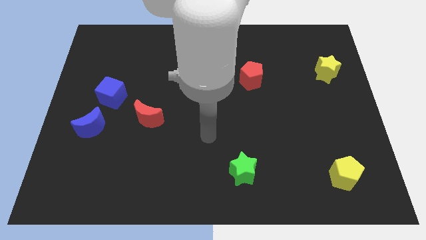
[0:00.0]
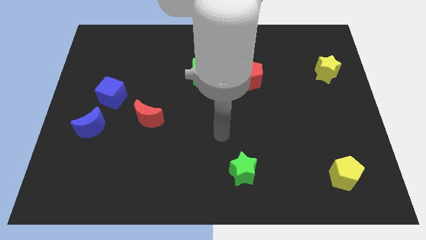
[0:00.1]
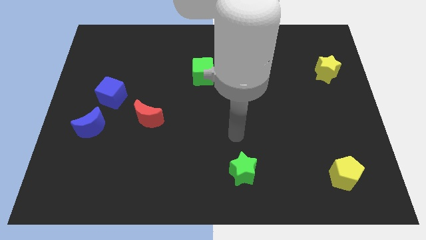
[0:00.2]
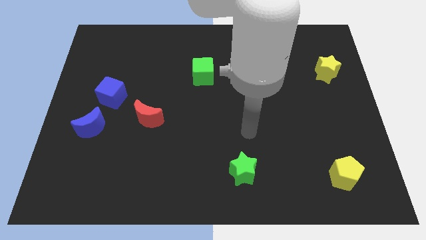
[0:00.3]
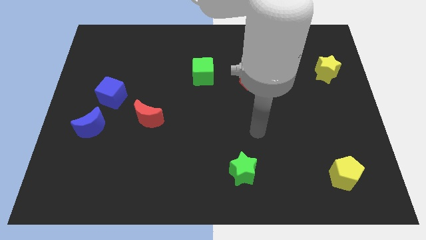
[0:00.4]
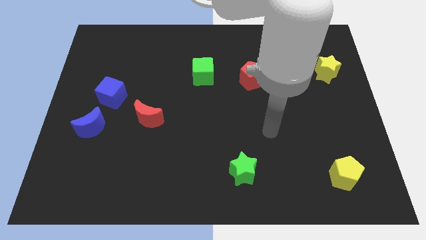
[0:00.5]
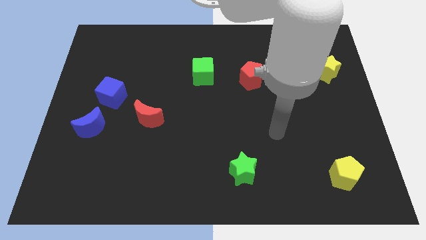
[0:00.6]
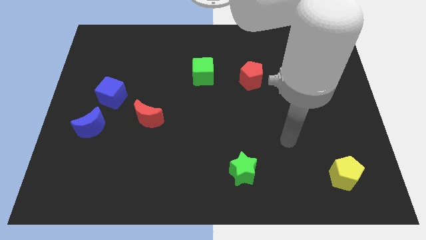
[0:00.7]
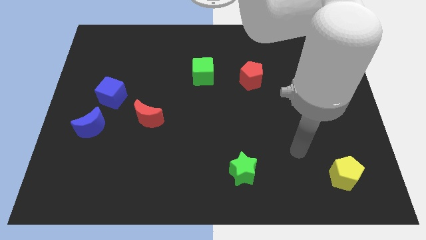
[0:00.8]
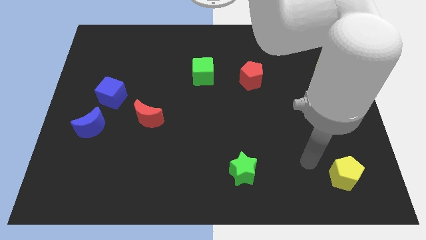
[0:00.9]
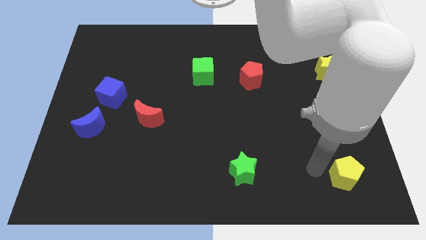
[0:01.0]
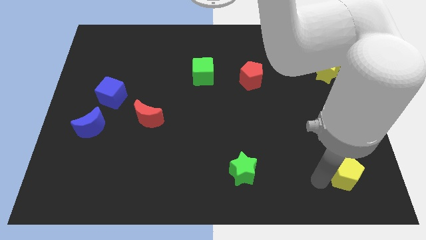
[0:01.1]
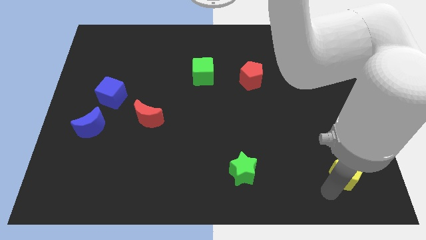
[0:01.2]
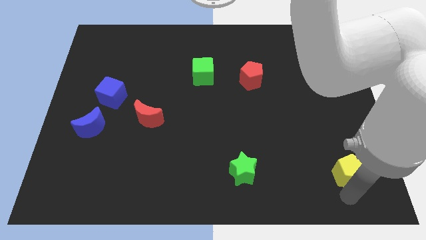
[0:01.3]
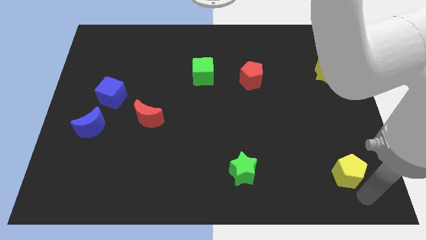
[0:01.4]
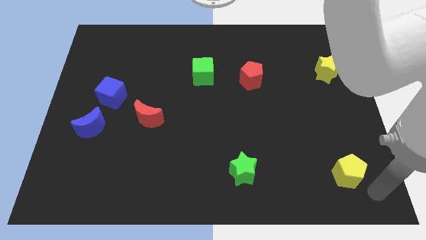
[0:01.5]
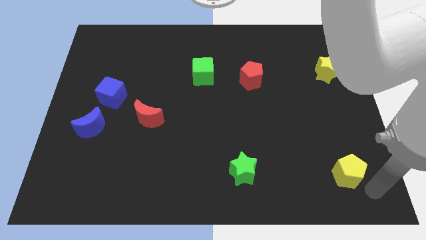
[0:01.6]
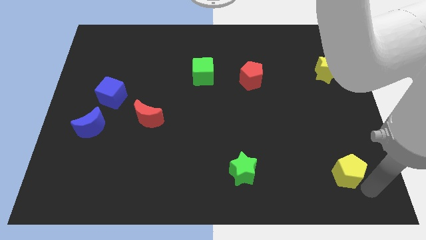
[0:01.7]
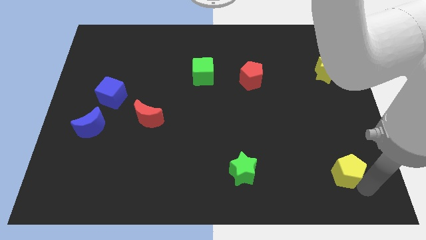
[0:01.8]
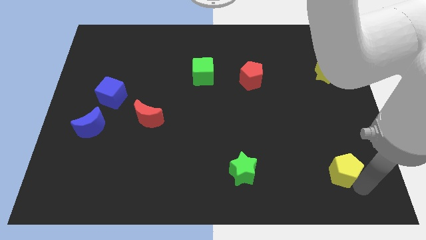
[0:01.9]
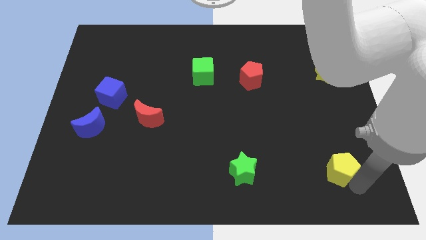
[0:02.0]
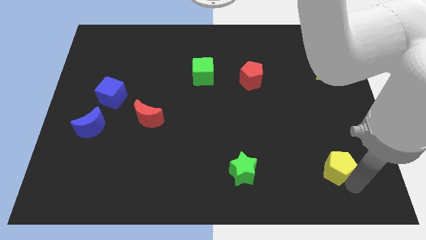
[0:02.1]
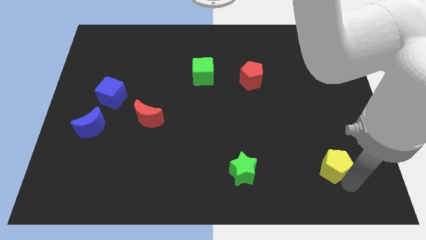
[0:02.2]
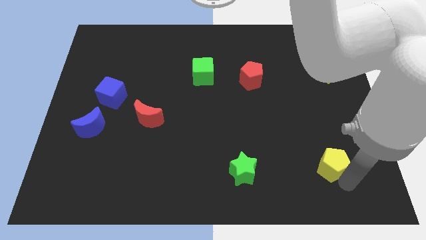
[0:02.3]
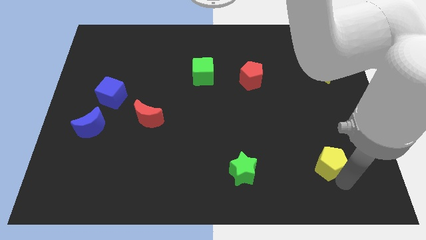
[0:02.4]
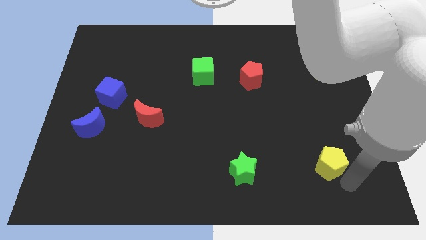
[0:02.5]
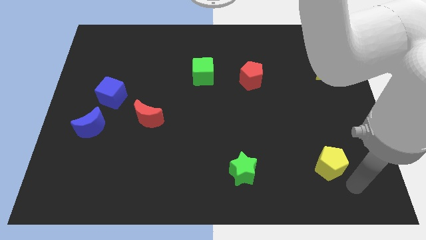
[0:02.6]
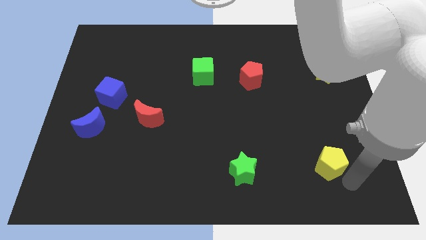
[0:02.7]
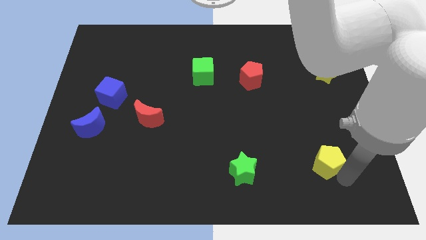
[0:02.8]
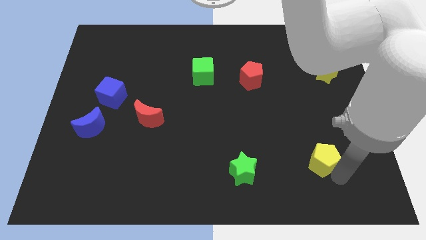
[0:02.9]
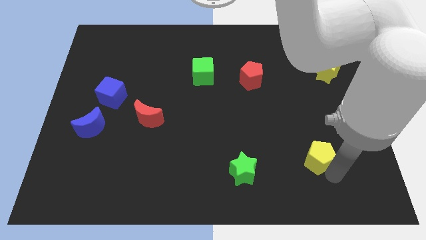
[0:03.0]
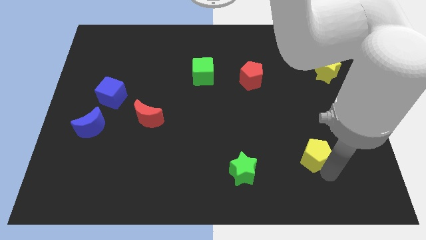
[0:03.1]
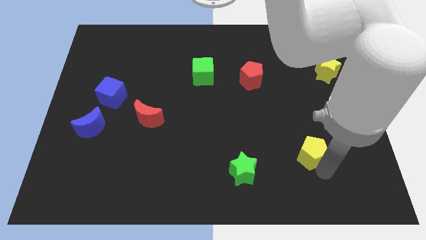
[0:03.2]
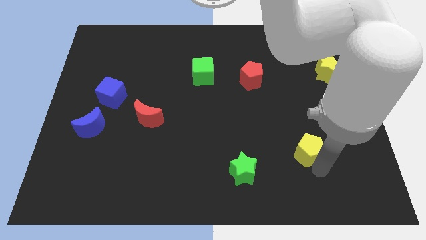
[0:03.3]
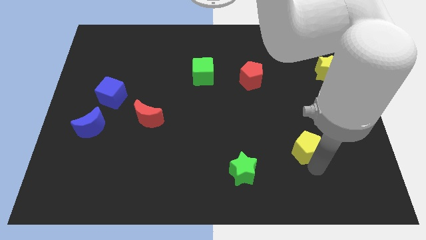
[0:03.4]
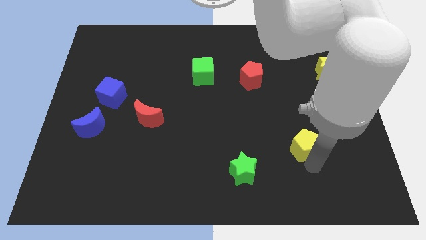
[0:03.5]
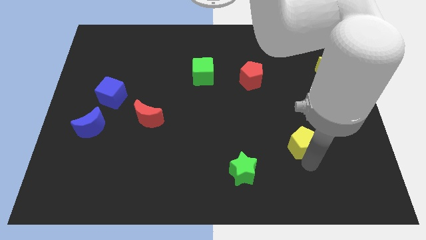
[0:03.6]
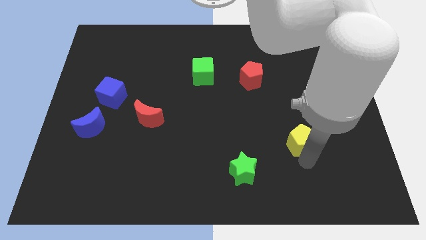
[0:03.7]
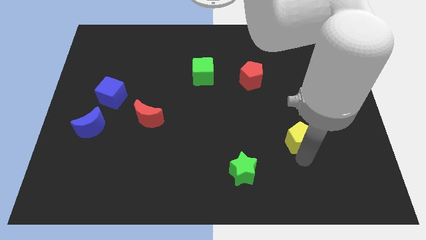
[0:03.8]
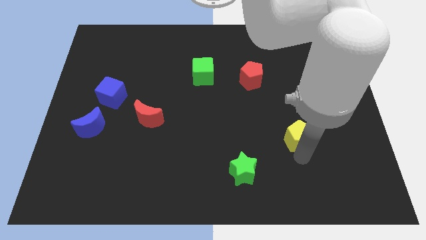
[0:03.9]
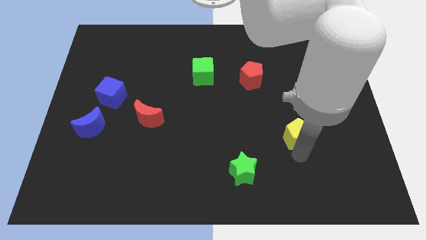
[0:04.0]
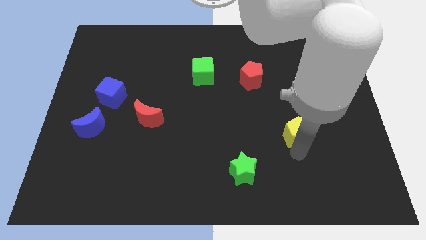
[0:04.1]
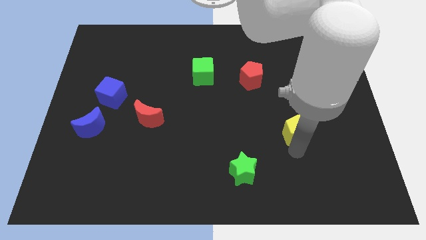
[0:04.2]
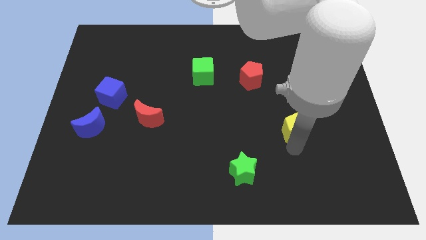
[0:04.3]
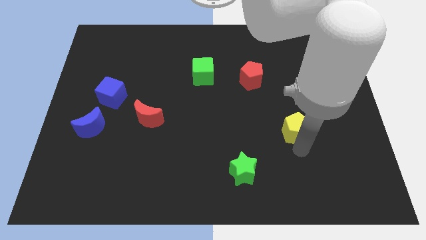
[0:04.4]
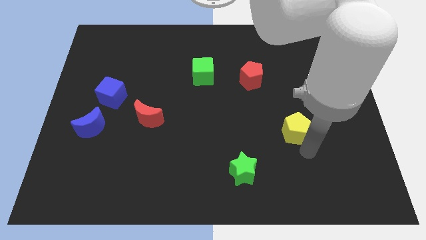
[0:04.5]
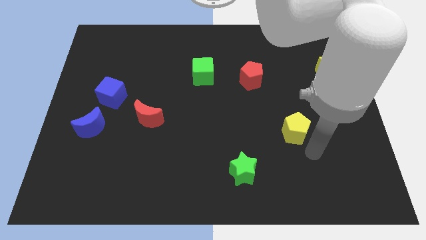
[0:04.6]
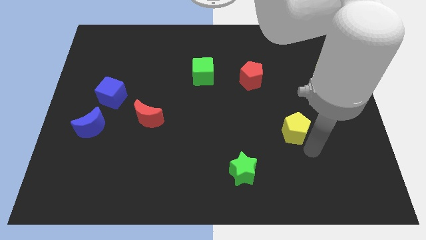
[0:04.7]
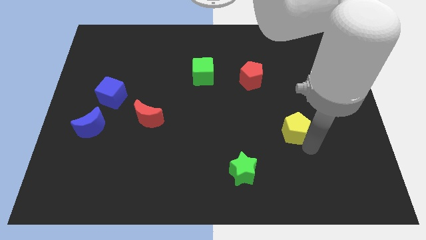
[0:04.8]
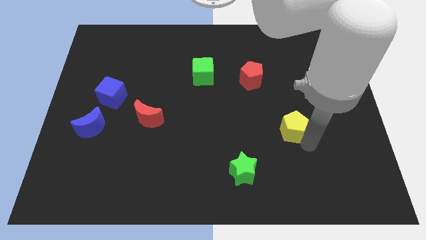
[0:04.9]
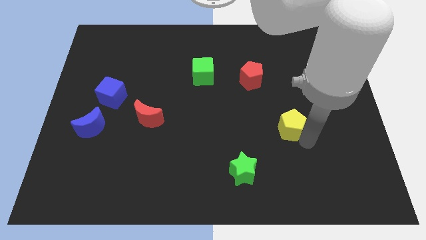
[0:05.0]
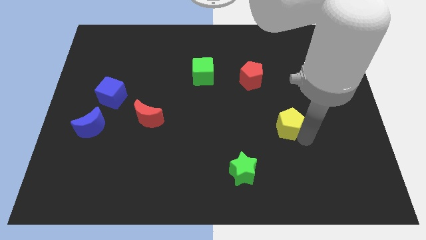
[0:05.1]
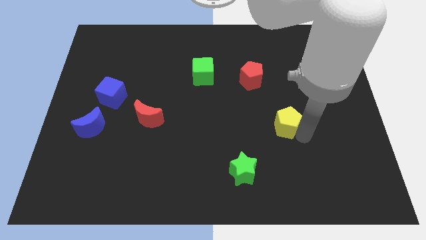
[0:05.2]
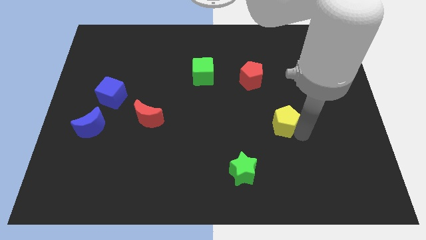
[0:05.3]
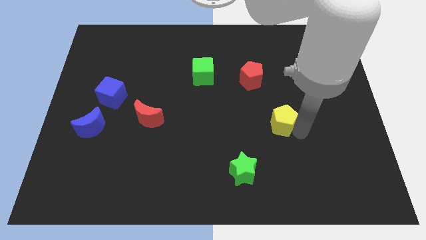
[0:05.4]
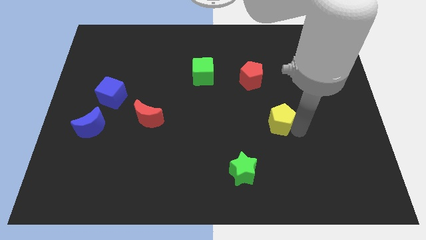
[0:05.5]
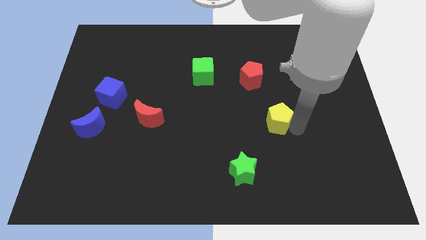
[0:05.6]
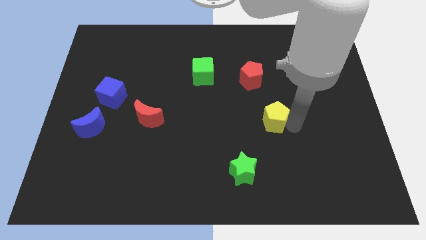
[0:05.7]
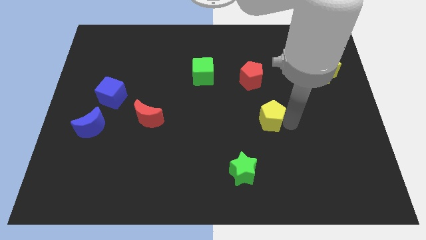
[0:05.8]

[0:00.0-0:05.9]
slide the yellow pentagon upwards and left diagonally

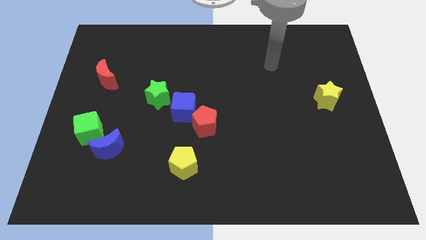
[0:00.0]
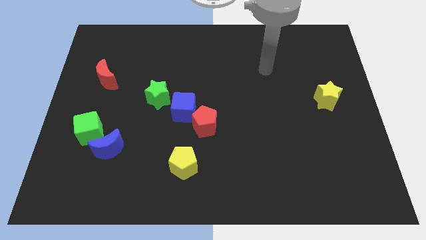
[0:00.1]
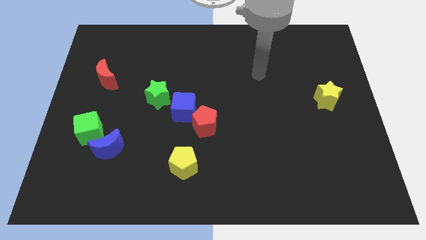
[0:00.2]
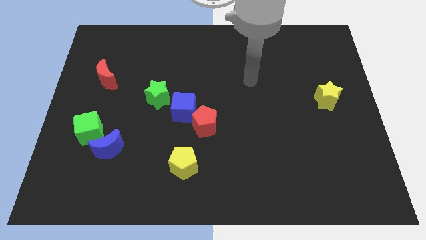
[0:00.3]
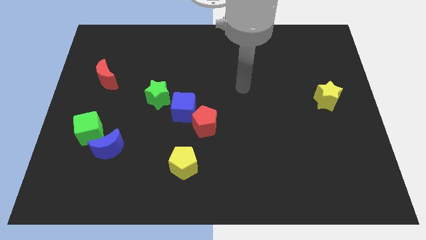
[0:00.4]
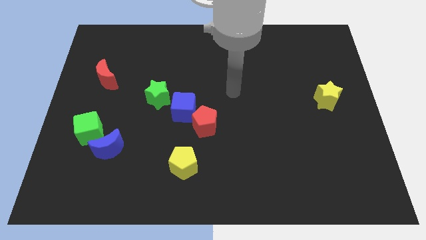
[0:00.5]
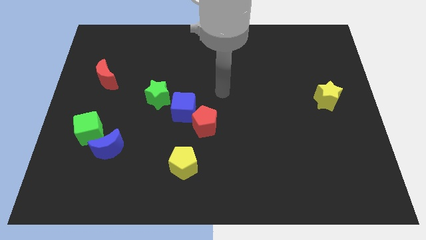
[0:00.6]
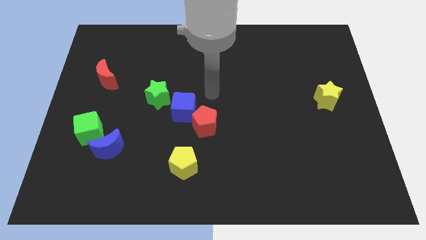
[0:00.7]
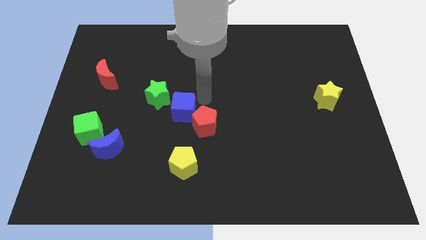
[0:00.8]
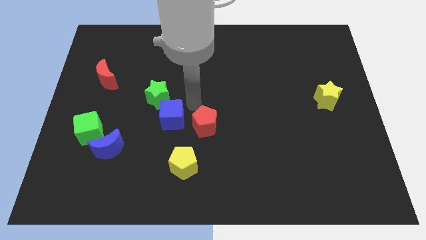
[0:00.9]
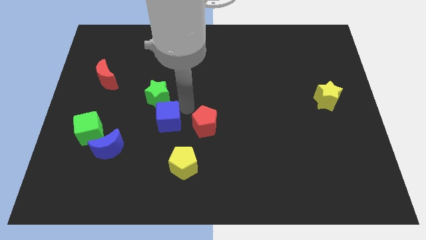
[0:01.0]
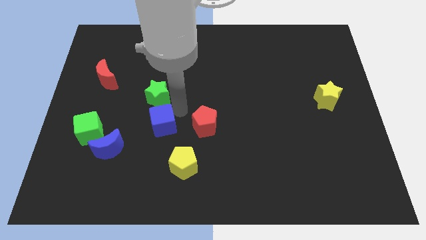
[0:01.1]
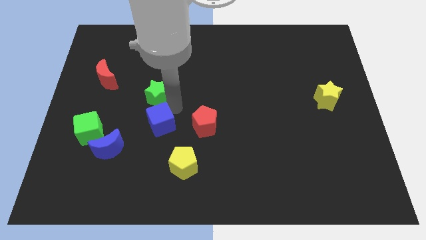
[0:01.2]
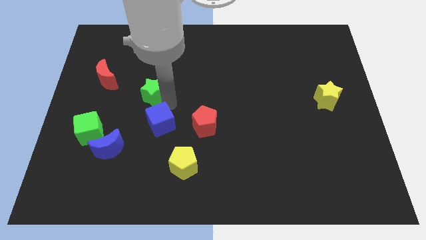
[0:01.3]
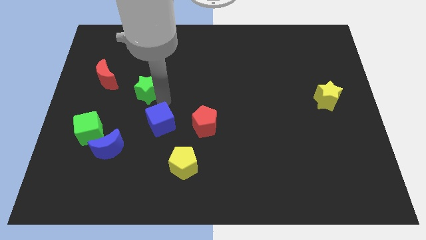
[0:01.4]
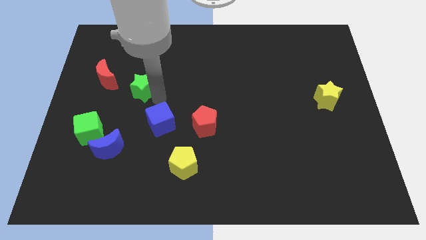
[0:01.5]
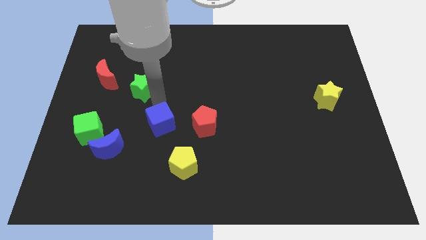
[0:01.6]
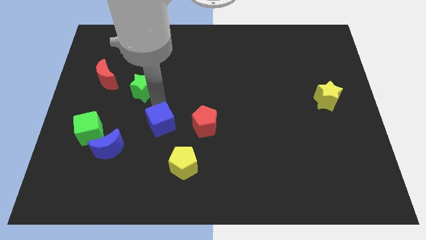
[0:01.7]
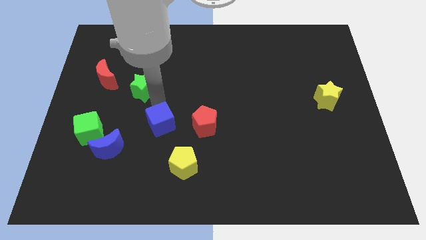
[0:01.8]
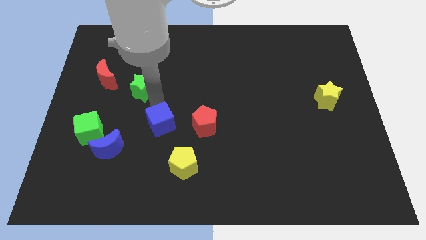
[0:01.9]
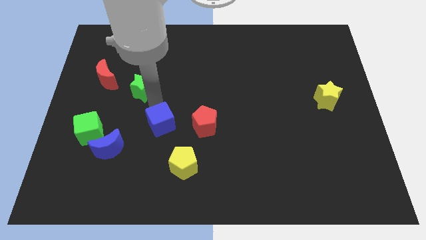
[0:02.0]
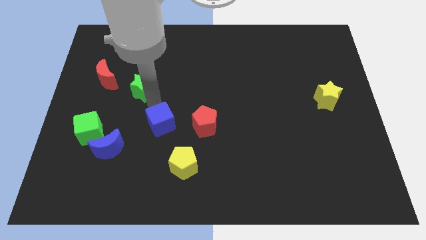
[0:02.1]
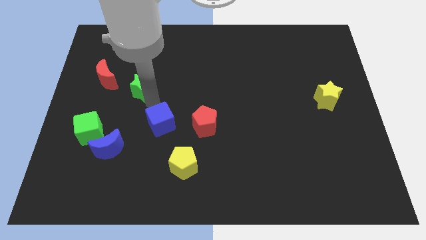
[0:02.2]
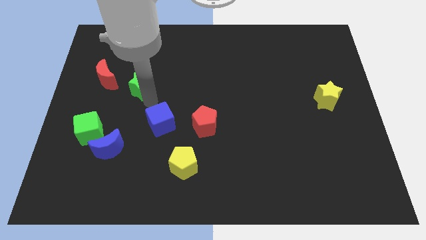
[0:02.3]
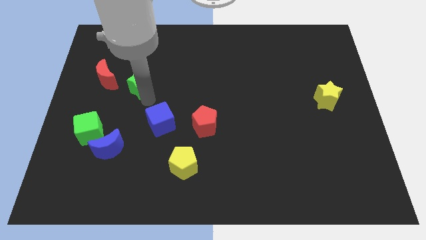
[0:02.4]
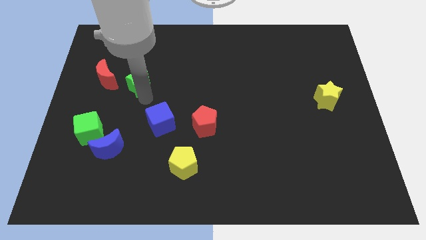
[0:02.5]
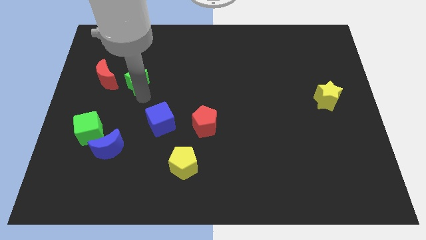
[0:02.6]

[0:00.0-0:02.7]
slightly push the green star diagonally upwards and to the left

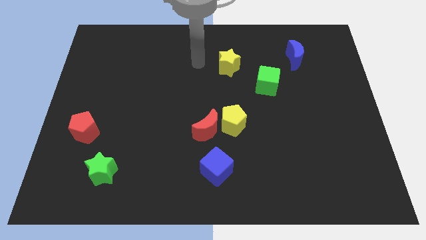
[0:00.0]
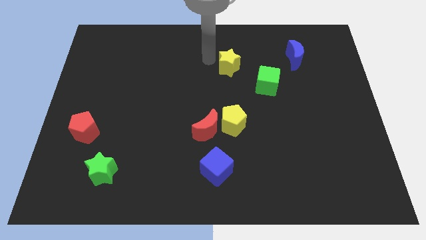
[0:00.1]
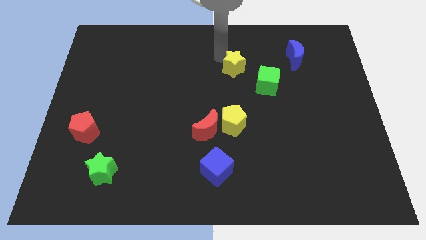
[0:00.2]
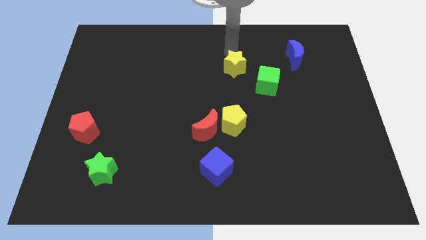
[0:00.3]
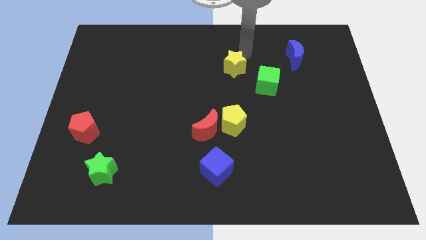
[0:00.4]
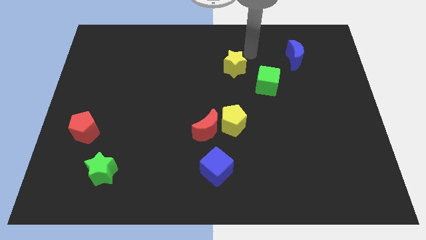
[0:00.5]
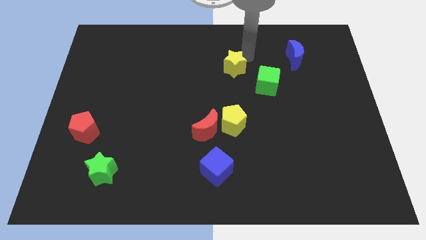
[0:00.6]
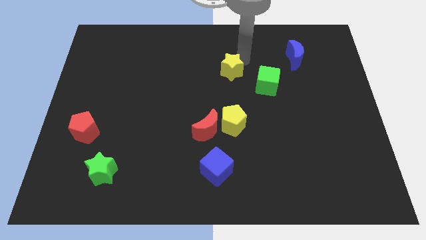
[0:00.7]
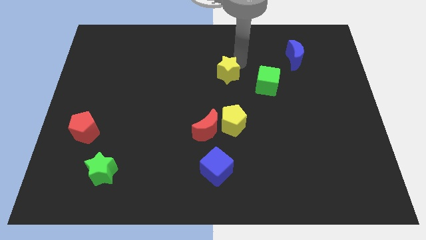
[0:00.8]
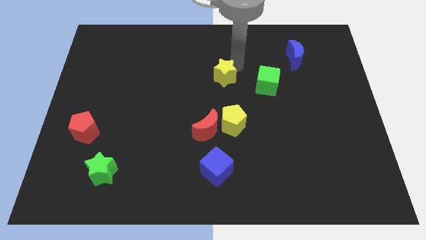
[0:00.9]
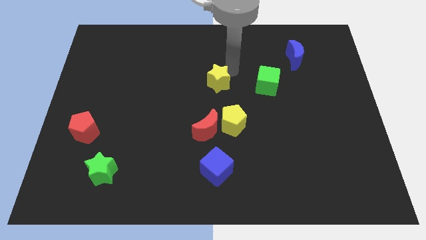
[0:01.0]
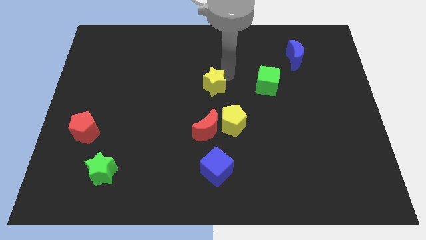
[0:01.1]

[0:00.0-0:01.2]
push the yellow star diagonally downwards and to the left a little
